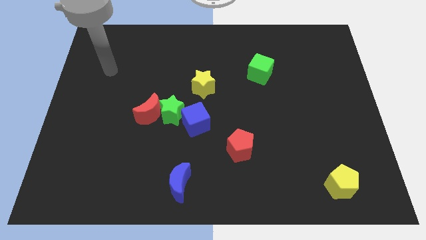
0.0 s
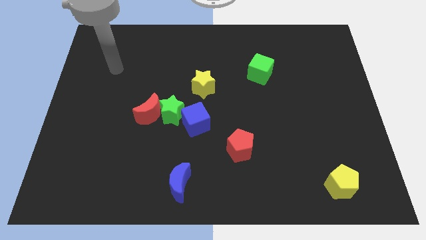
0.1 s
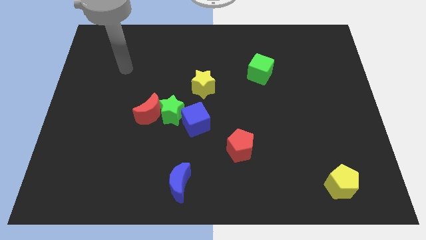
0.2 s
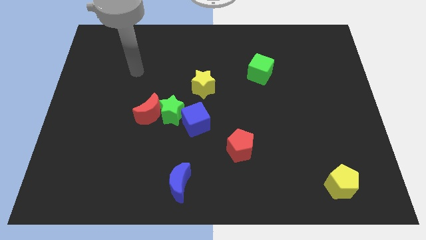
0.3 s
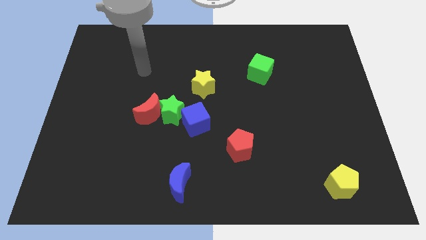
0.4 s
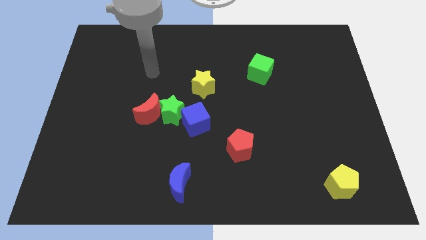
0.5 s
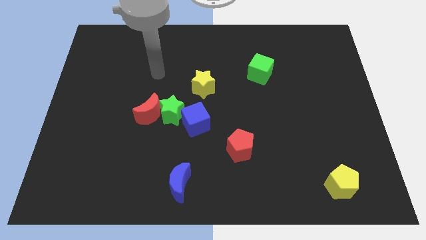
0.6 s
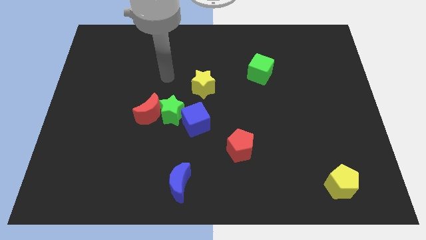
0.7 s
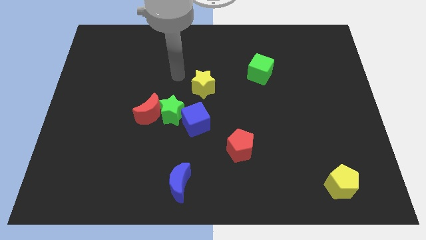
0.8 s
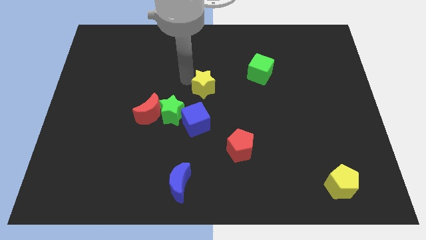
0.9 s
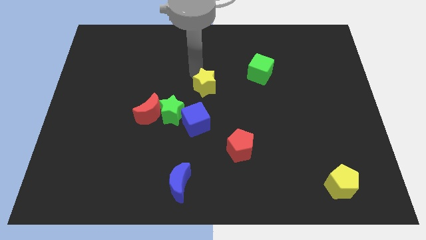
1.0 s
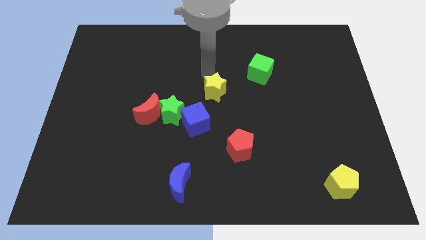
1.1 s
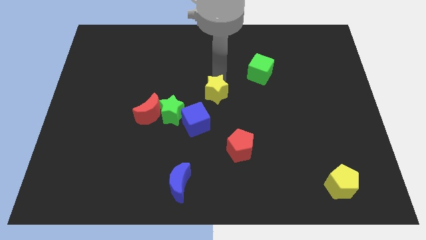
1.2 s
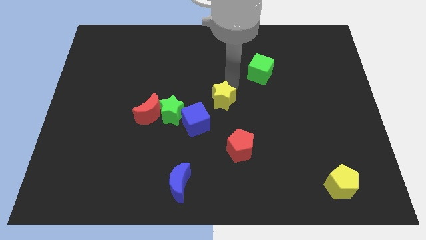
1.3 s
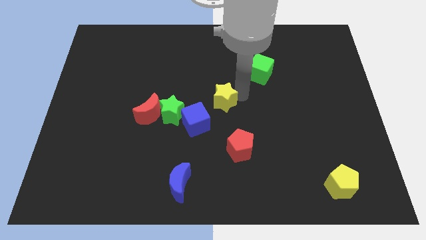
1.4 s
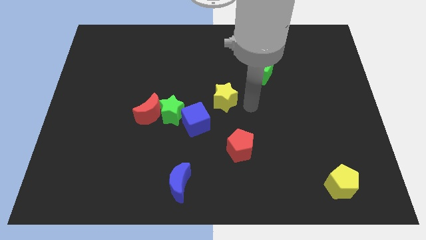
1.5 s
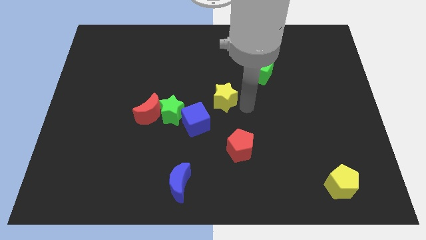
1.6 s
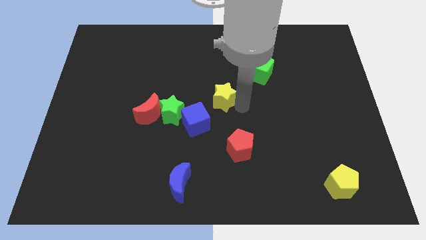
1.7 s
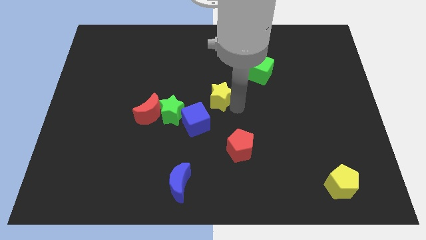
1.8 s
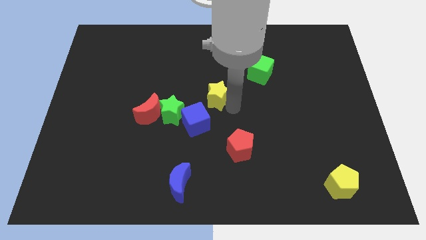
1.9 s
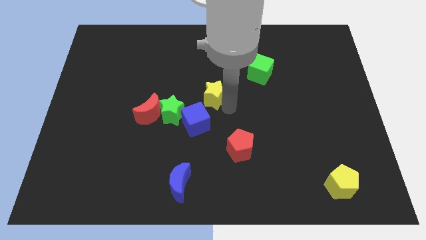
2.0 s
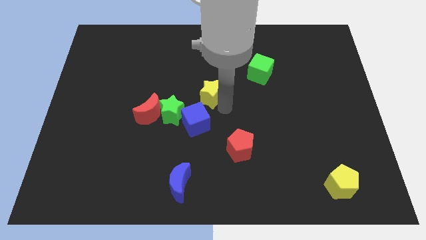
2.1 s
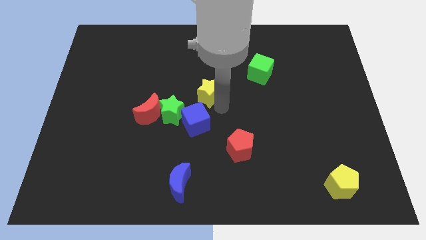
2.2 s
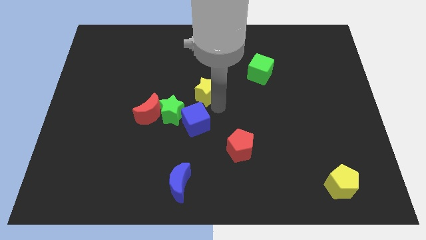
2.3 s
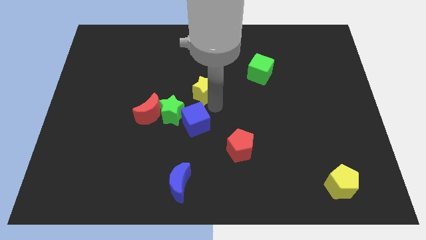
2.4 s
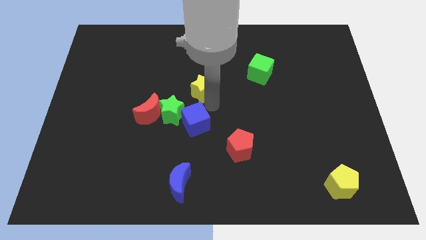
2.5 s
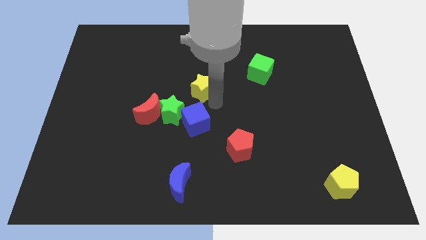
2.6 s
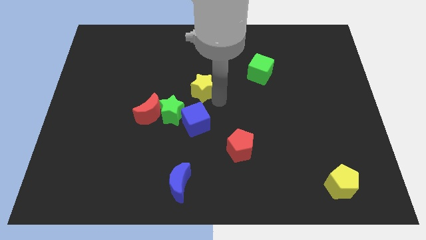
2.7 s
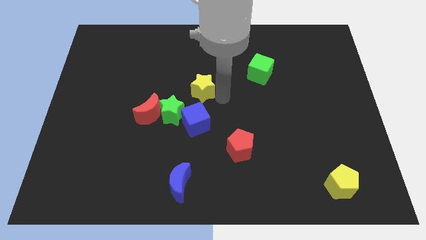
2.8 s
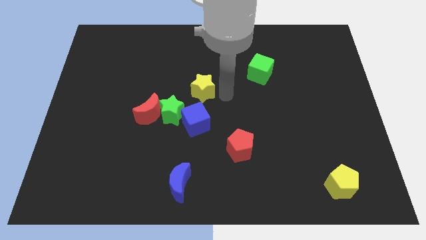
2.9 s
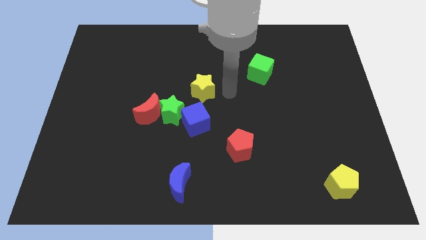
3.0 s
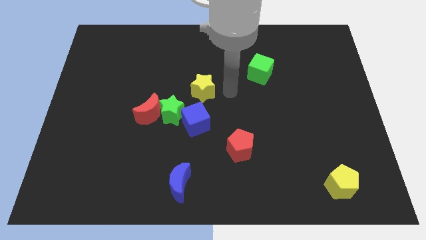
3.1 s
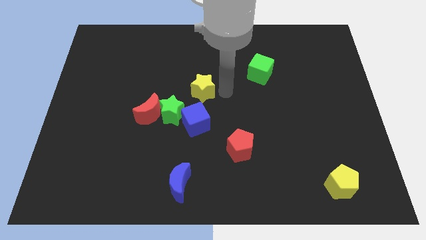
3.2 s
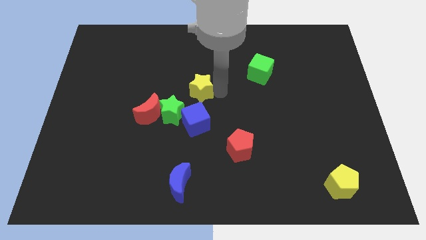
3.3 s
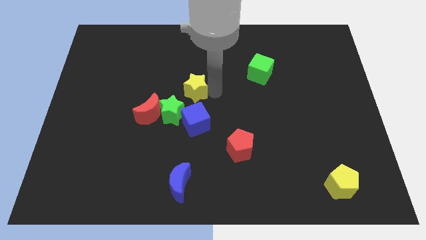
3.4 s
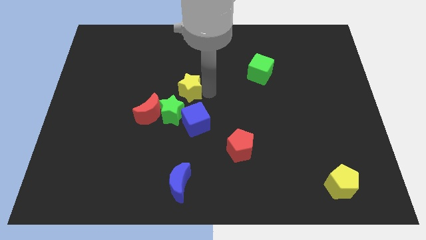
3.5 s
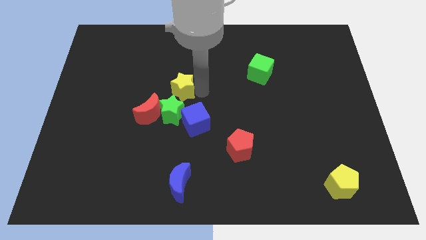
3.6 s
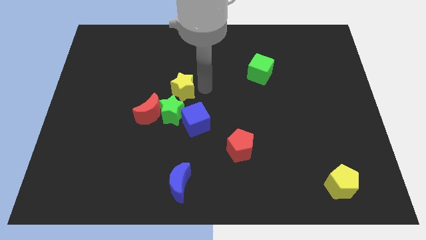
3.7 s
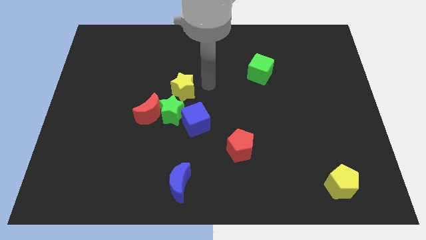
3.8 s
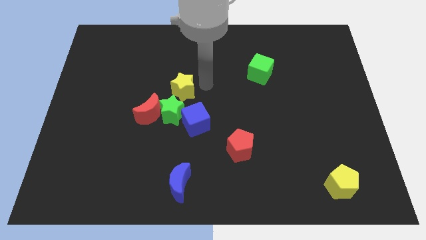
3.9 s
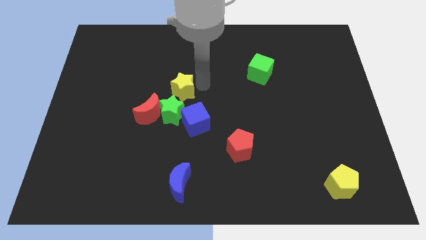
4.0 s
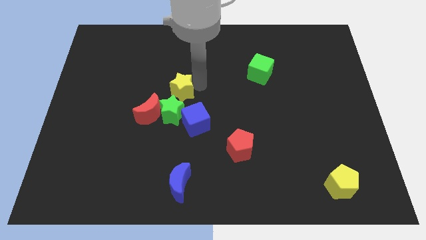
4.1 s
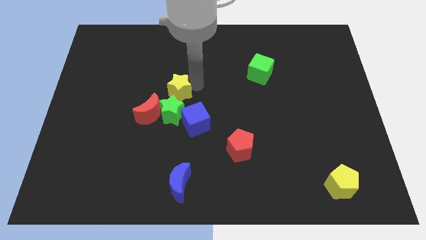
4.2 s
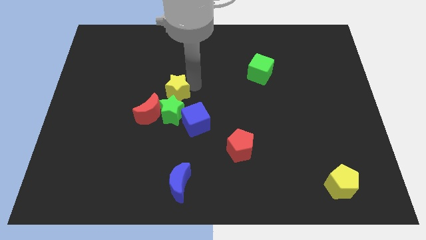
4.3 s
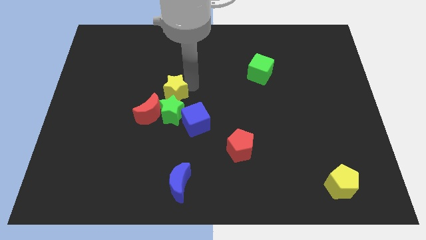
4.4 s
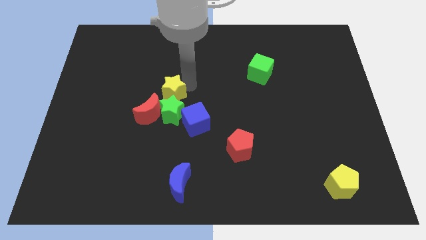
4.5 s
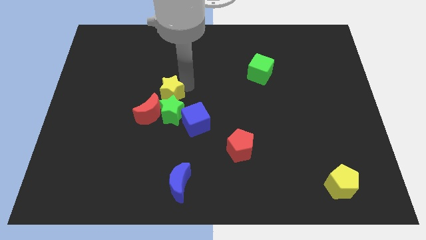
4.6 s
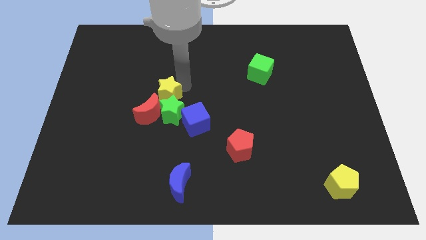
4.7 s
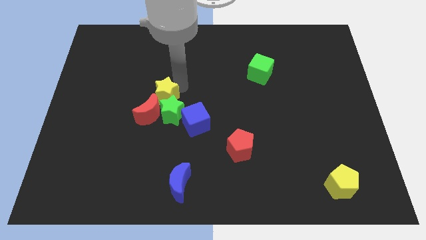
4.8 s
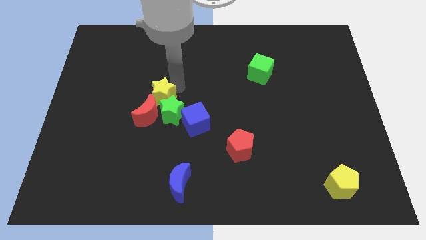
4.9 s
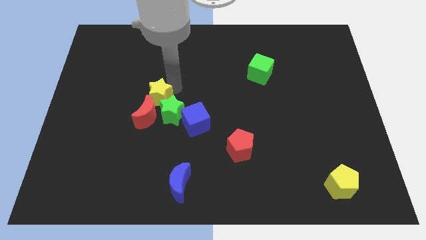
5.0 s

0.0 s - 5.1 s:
slide the yellow star next to the red moon

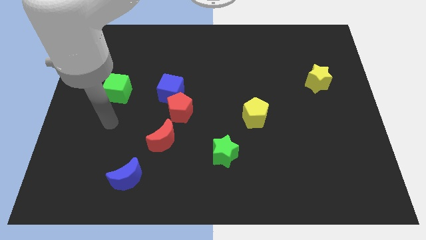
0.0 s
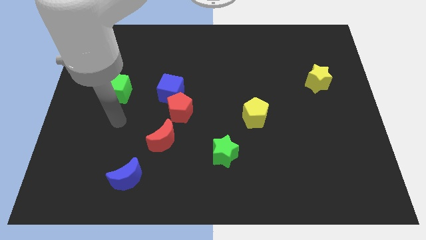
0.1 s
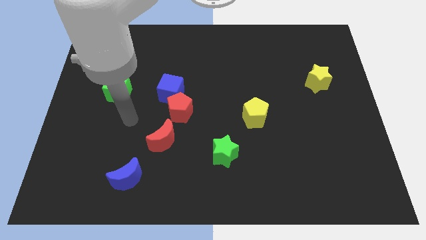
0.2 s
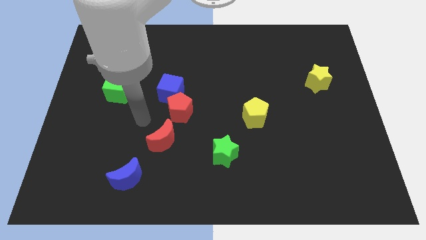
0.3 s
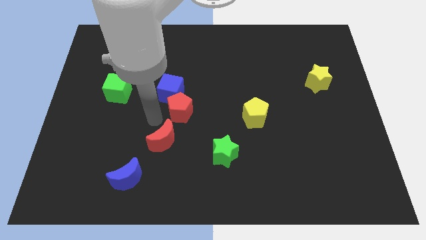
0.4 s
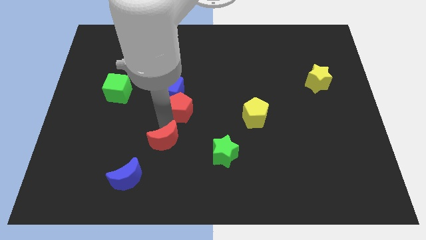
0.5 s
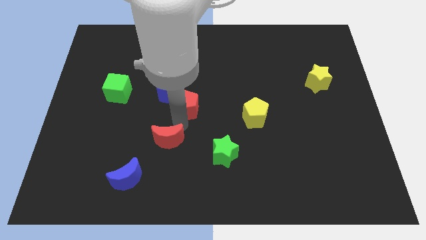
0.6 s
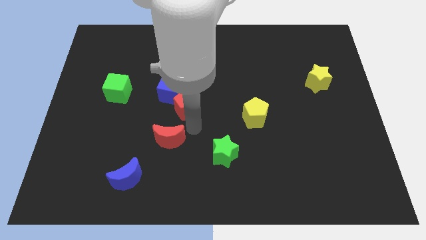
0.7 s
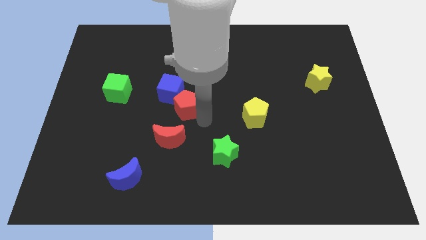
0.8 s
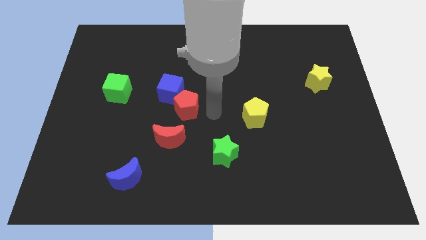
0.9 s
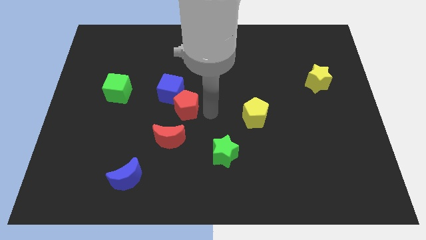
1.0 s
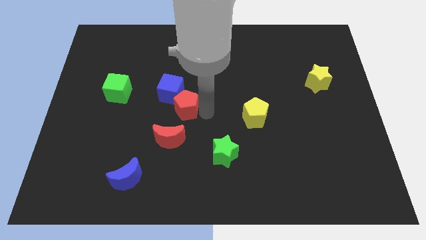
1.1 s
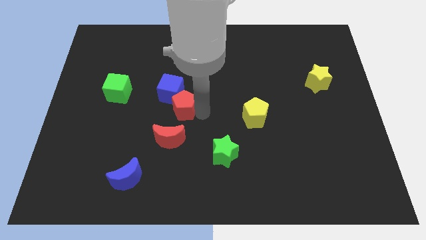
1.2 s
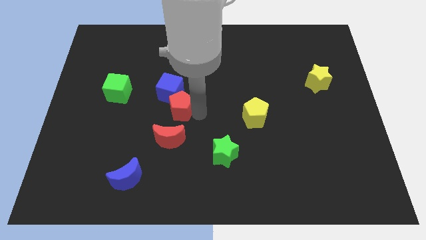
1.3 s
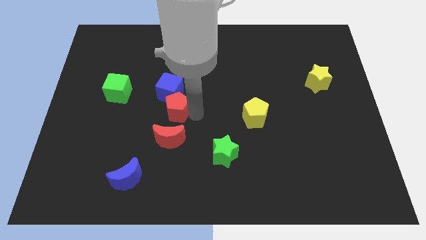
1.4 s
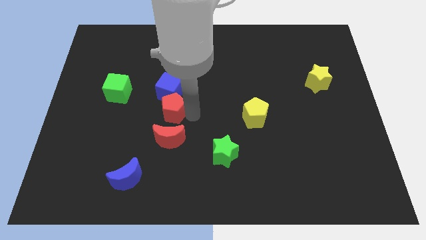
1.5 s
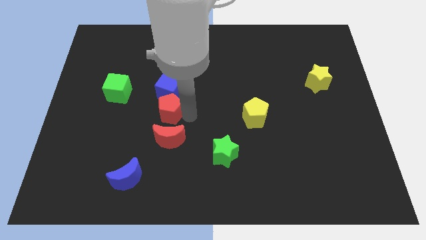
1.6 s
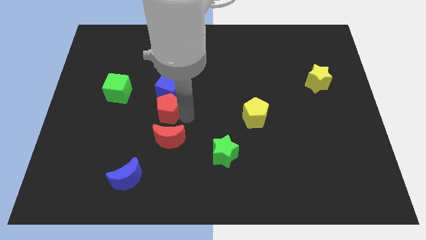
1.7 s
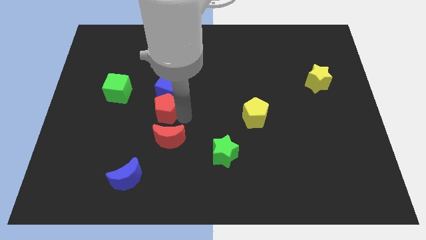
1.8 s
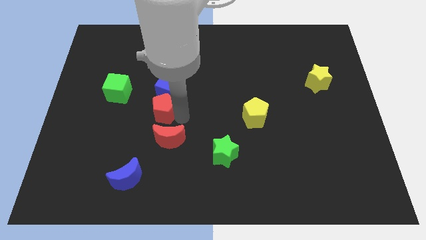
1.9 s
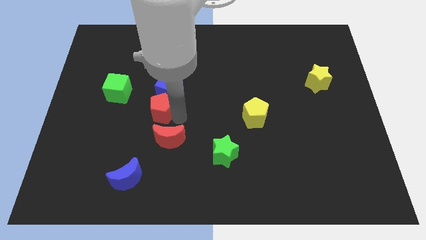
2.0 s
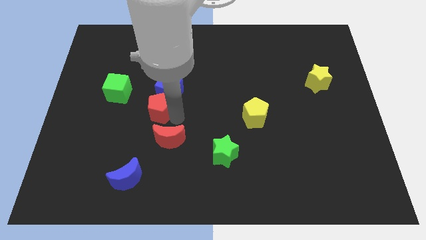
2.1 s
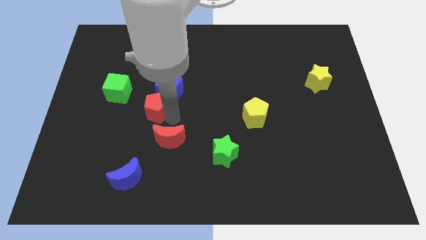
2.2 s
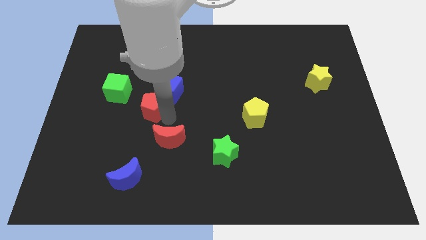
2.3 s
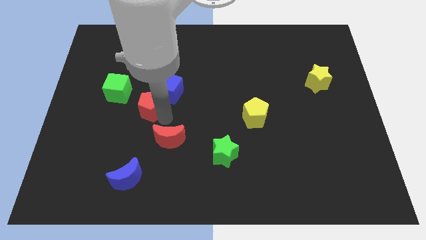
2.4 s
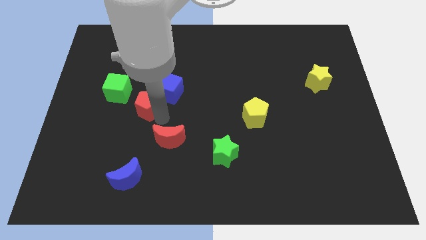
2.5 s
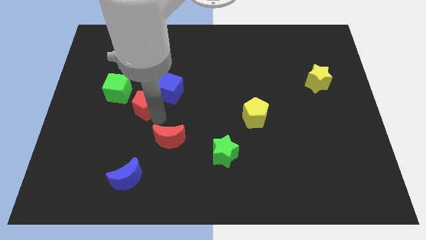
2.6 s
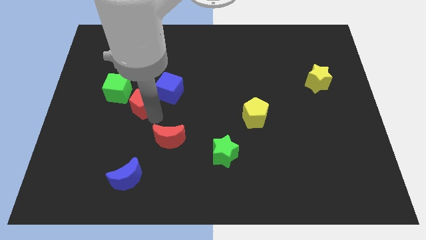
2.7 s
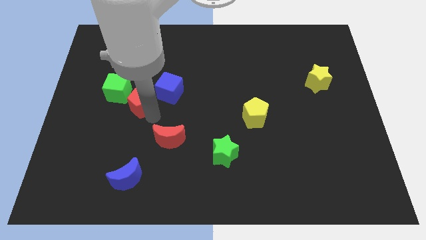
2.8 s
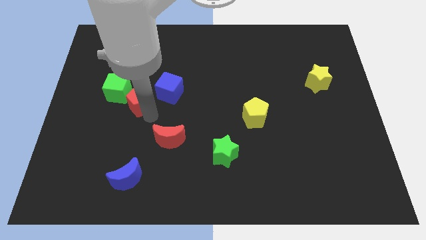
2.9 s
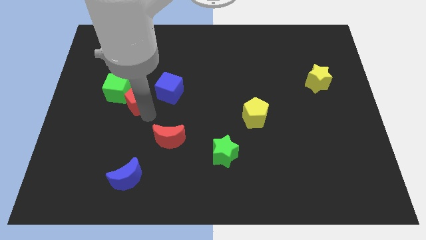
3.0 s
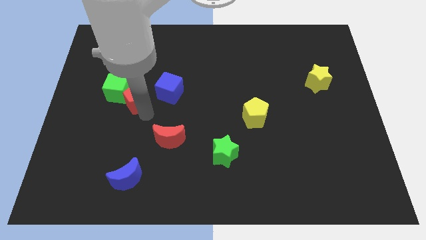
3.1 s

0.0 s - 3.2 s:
put the red pentagon towards the green cube
